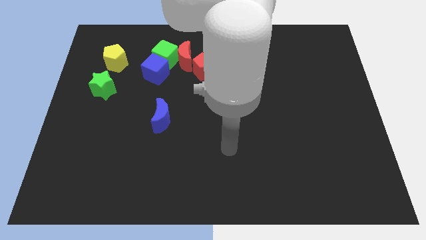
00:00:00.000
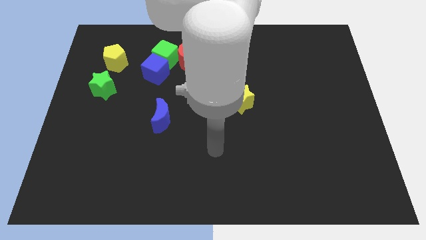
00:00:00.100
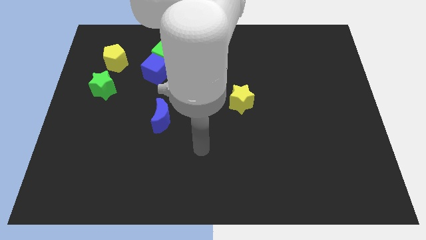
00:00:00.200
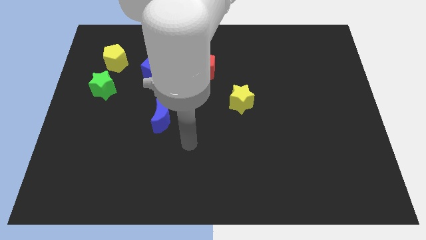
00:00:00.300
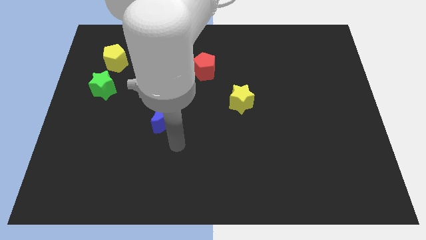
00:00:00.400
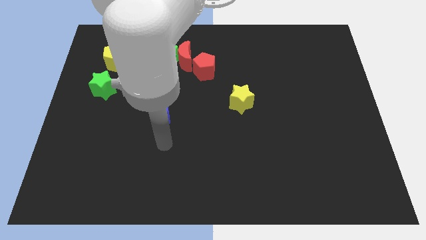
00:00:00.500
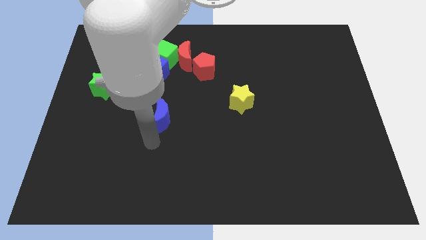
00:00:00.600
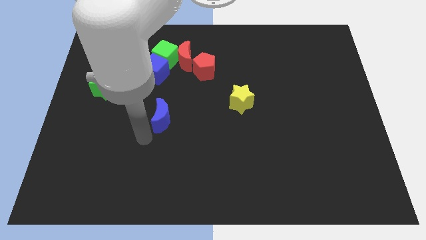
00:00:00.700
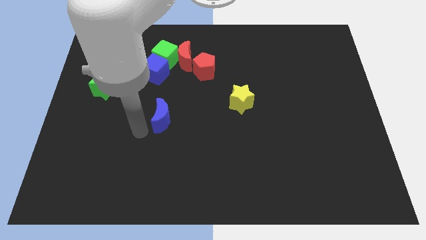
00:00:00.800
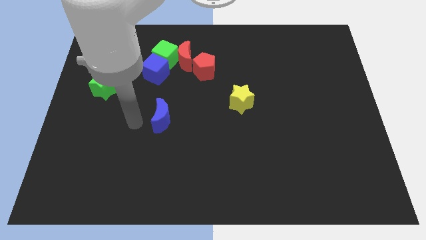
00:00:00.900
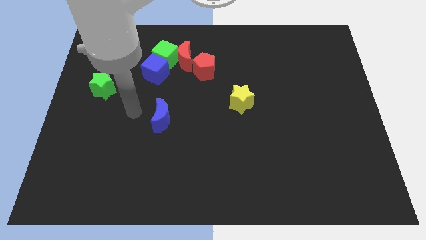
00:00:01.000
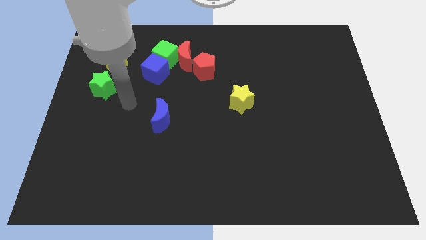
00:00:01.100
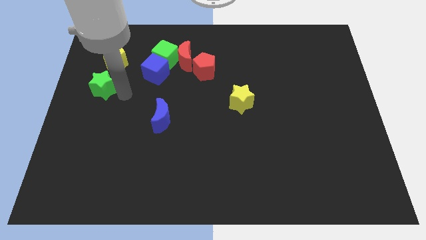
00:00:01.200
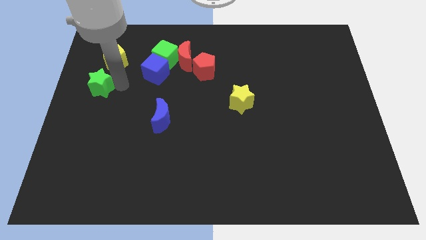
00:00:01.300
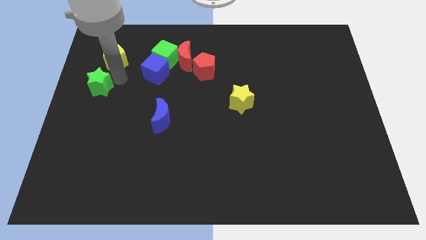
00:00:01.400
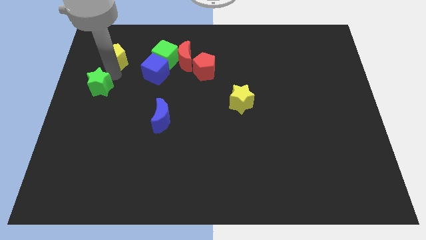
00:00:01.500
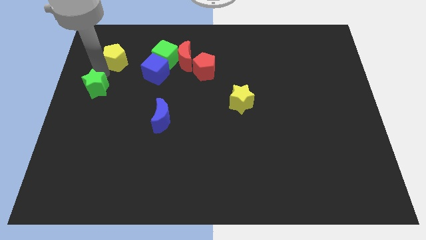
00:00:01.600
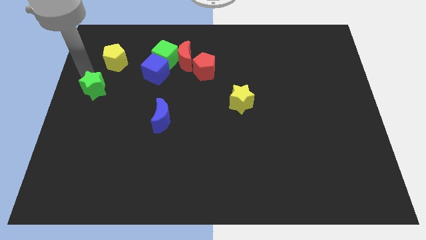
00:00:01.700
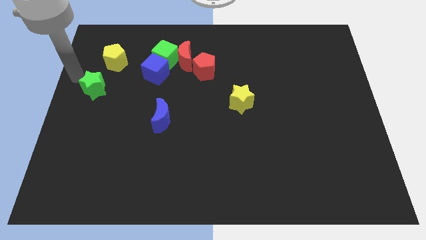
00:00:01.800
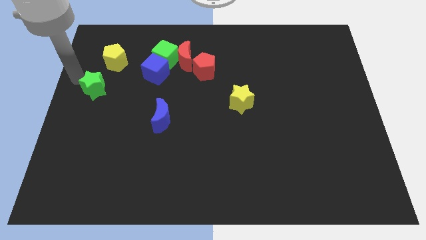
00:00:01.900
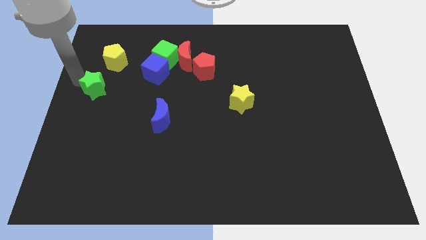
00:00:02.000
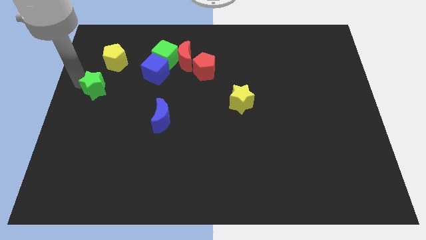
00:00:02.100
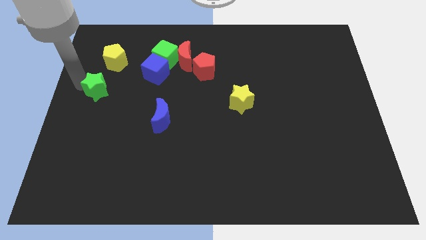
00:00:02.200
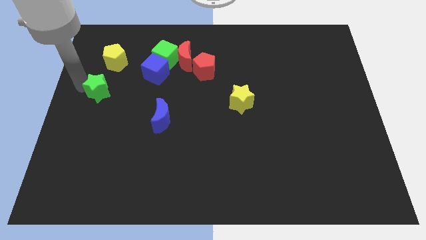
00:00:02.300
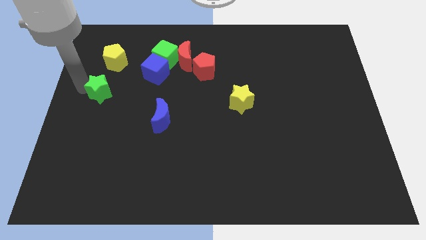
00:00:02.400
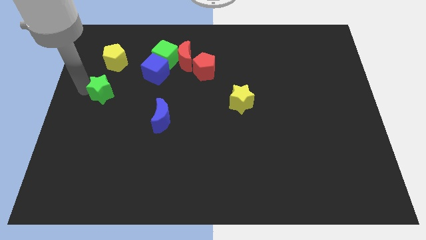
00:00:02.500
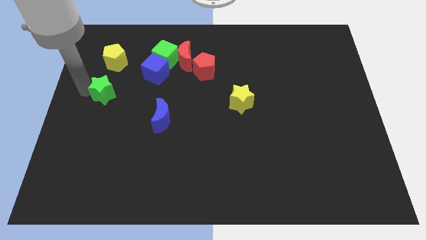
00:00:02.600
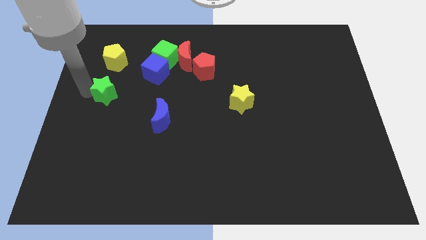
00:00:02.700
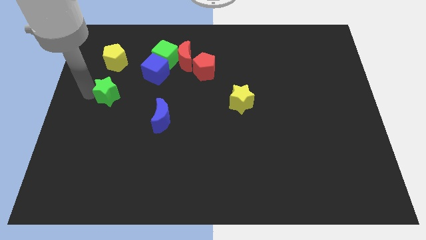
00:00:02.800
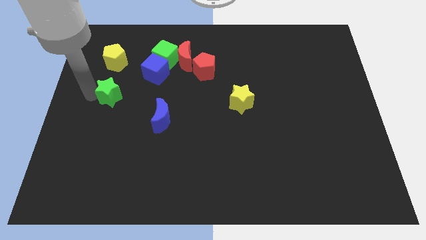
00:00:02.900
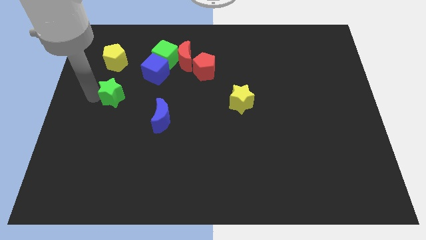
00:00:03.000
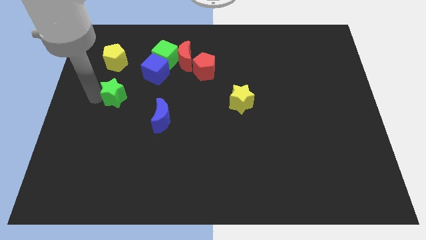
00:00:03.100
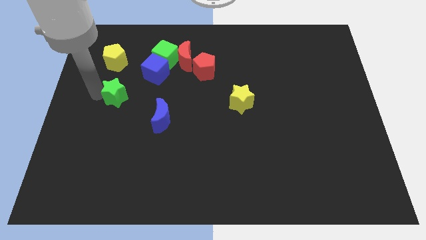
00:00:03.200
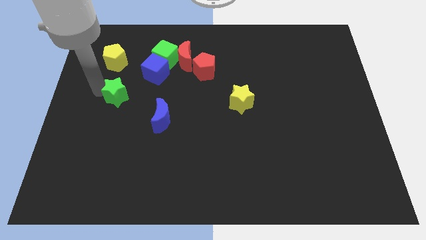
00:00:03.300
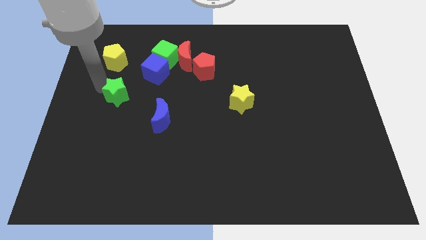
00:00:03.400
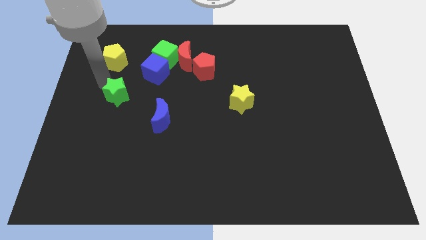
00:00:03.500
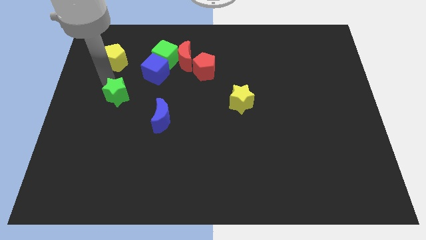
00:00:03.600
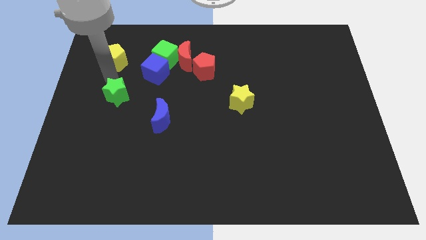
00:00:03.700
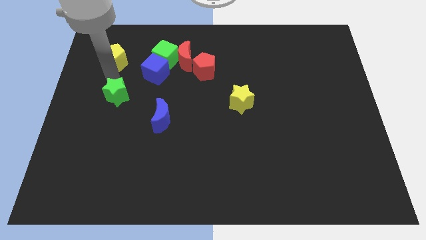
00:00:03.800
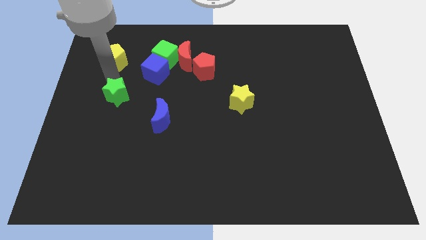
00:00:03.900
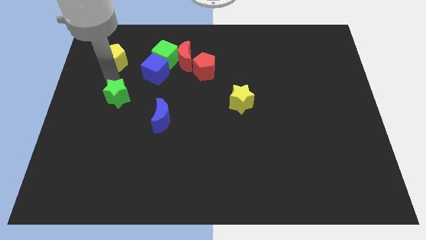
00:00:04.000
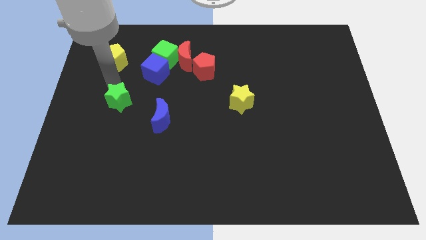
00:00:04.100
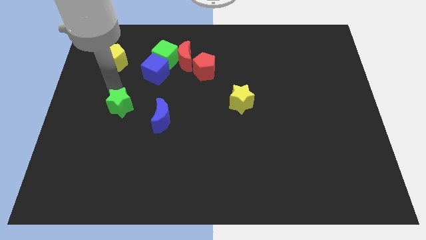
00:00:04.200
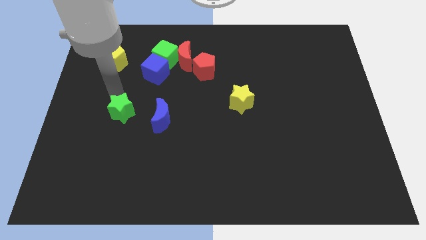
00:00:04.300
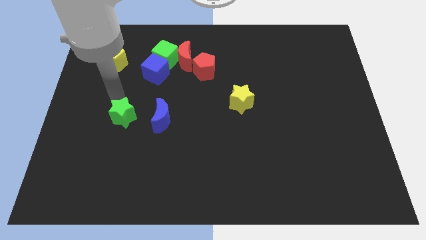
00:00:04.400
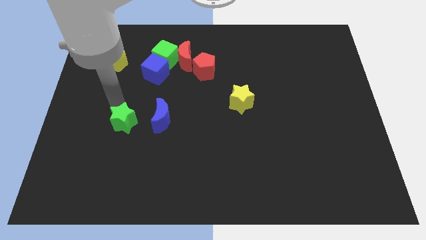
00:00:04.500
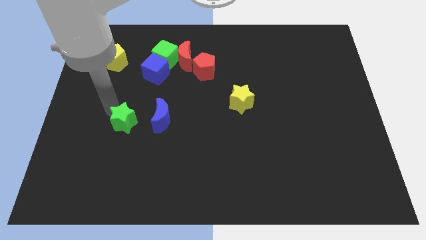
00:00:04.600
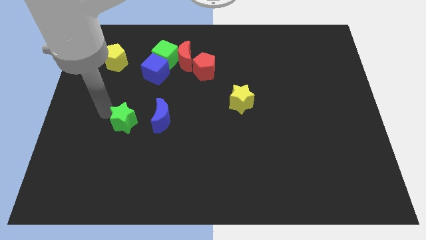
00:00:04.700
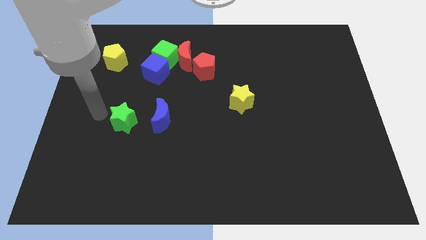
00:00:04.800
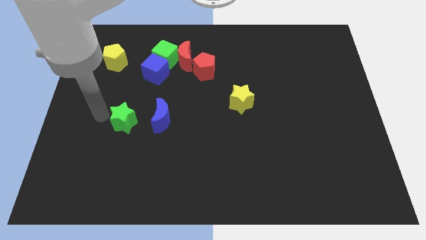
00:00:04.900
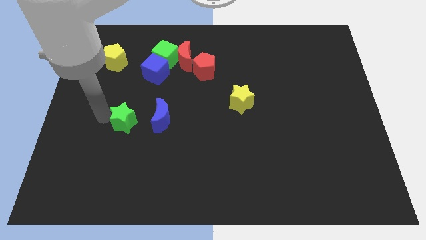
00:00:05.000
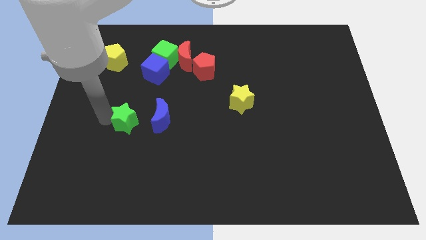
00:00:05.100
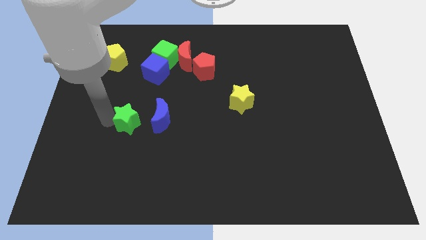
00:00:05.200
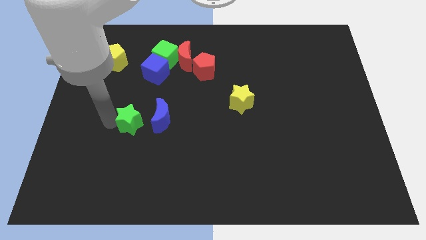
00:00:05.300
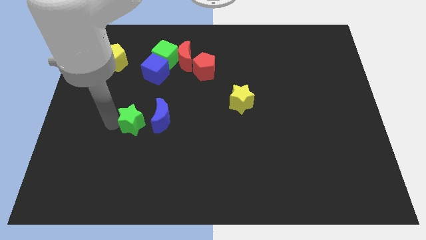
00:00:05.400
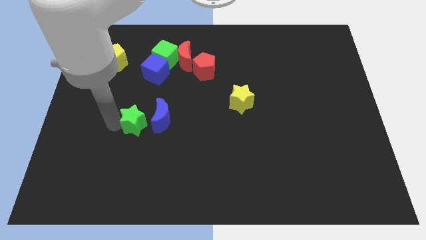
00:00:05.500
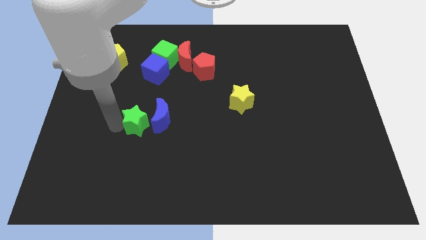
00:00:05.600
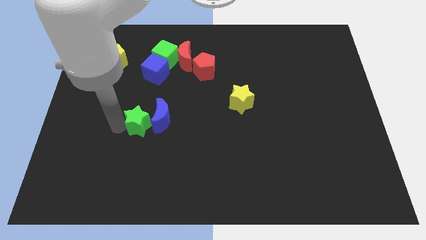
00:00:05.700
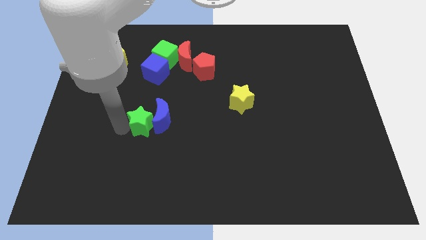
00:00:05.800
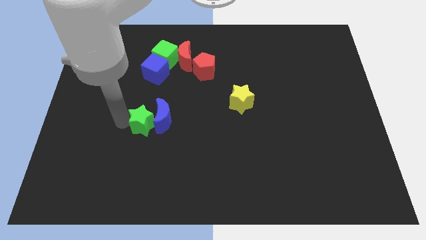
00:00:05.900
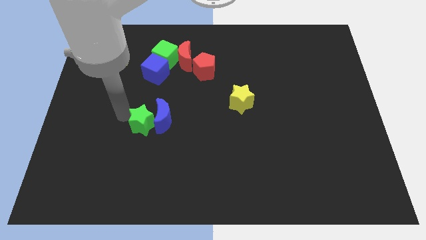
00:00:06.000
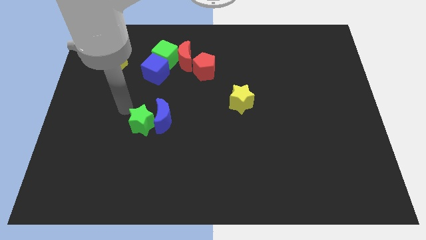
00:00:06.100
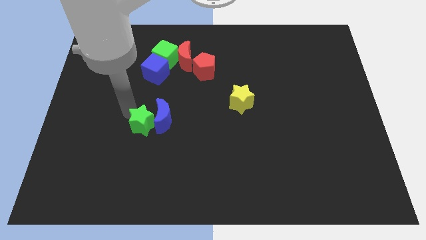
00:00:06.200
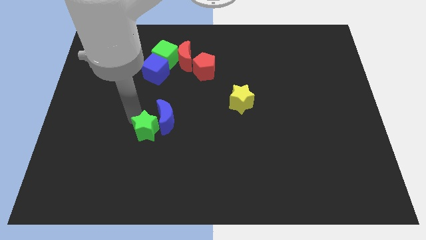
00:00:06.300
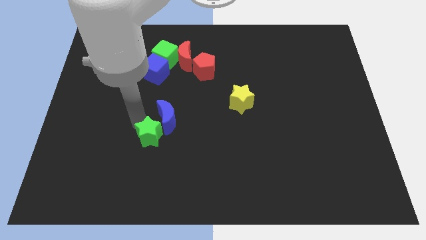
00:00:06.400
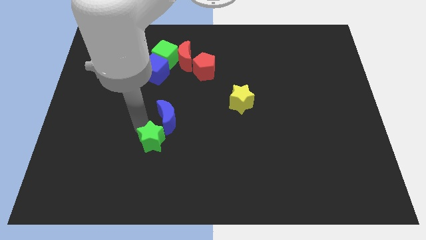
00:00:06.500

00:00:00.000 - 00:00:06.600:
move the green star diagonally down and right

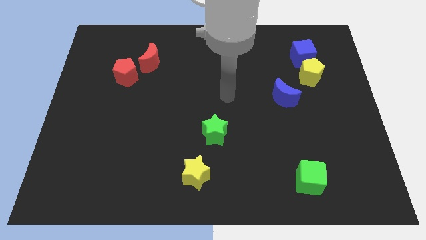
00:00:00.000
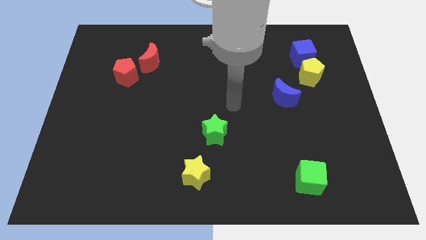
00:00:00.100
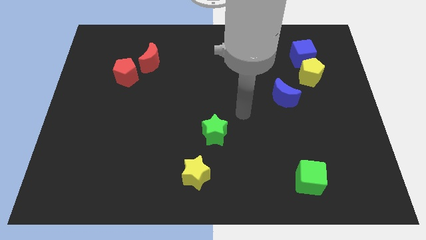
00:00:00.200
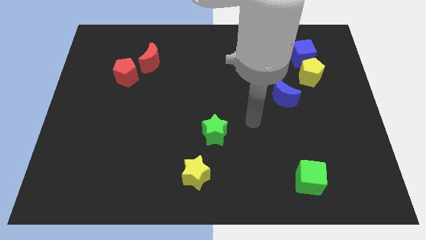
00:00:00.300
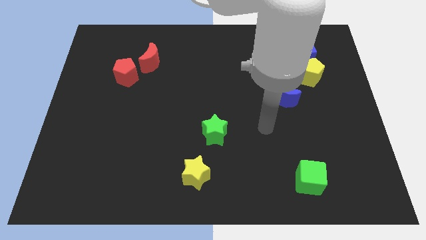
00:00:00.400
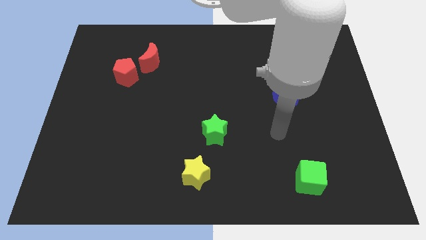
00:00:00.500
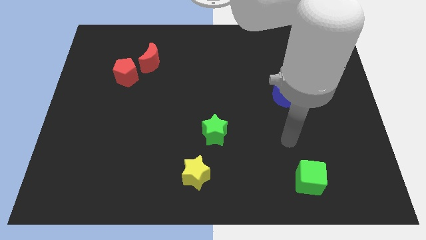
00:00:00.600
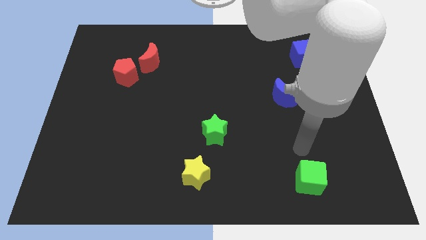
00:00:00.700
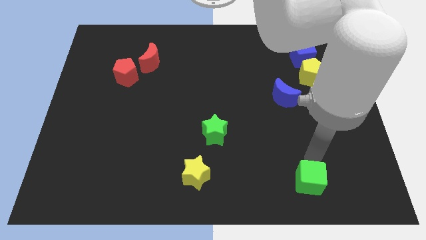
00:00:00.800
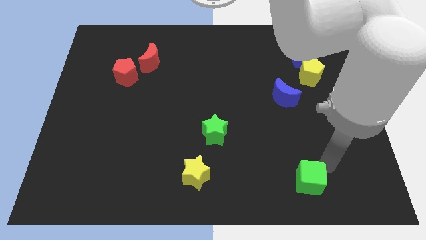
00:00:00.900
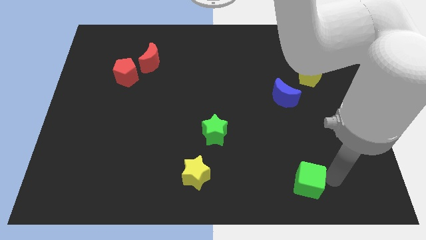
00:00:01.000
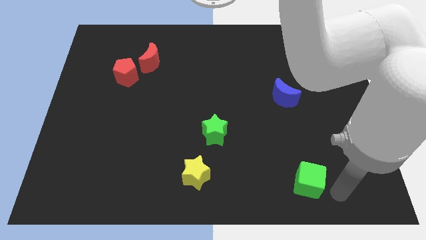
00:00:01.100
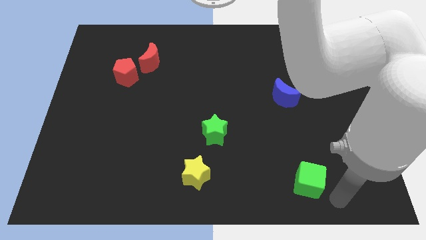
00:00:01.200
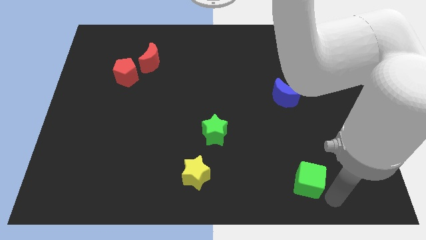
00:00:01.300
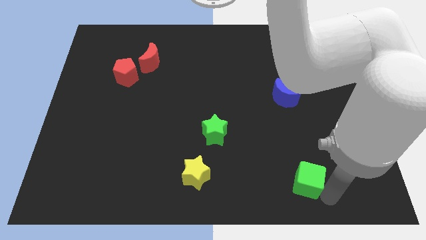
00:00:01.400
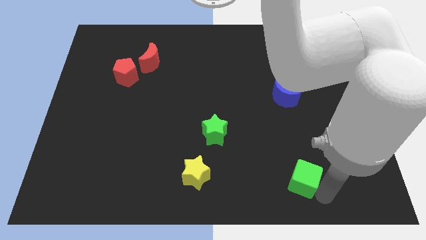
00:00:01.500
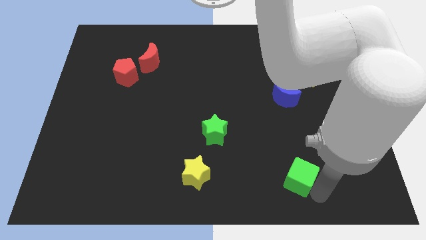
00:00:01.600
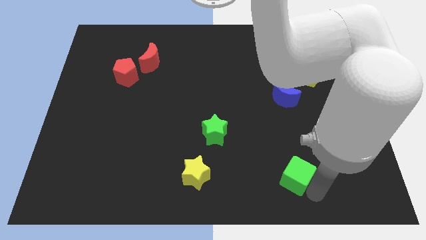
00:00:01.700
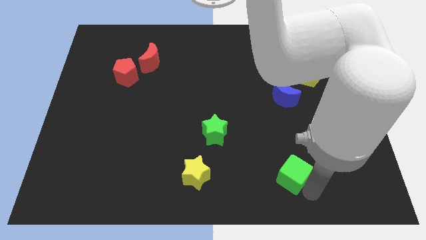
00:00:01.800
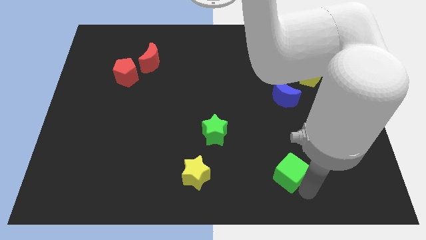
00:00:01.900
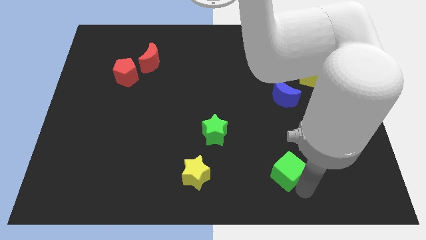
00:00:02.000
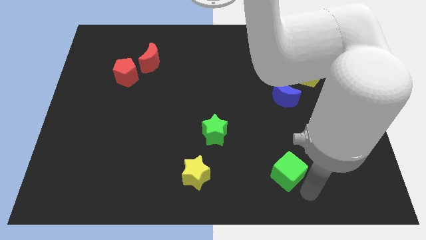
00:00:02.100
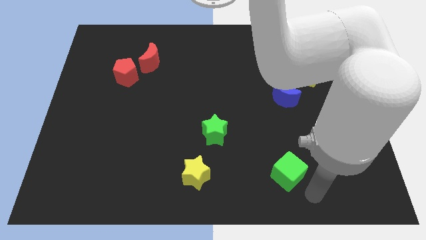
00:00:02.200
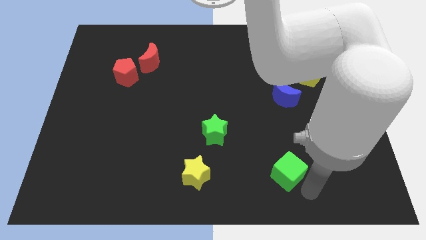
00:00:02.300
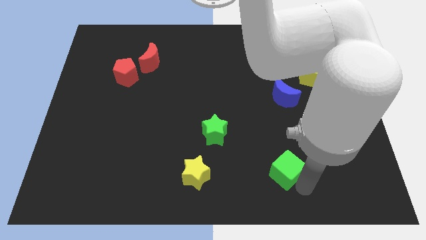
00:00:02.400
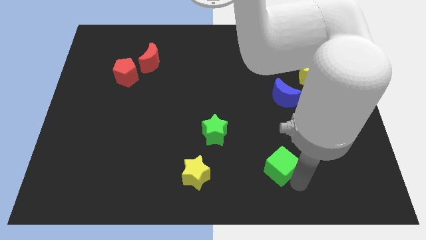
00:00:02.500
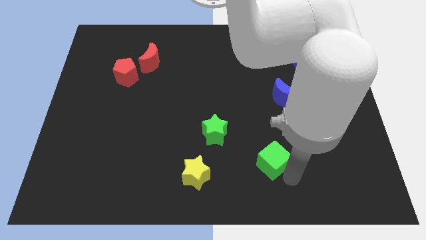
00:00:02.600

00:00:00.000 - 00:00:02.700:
move the green cube upwards and then left a little
